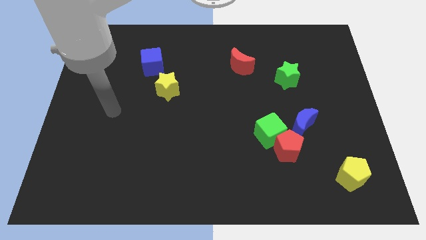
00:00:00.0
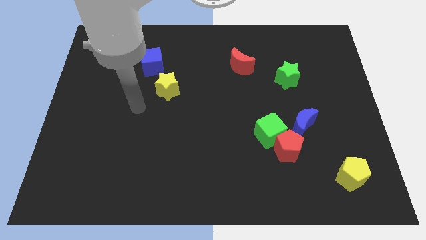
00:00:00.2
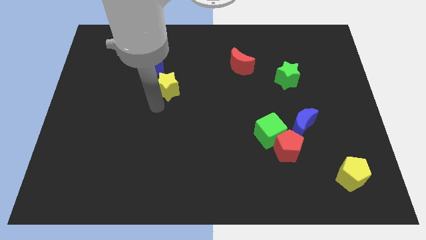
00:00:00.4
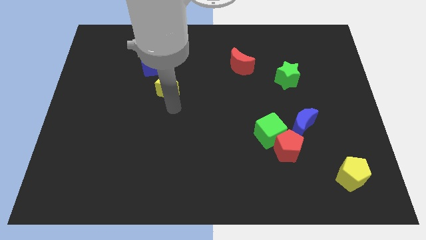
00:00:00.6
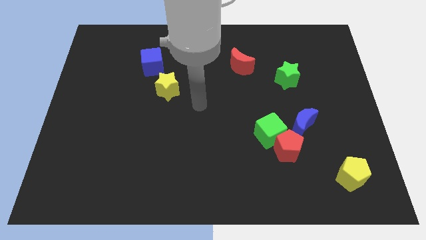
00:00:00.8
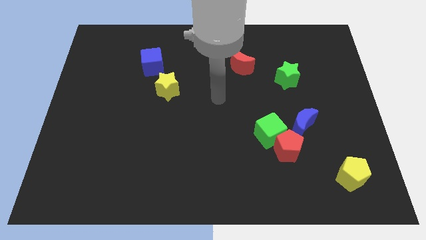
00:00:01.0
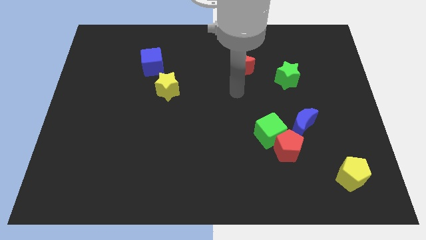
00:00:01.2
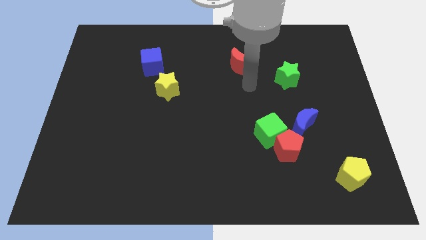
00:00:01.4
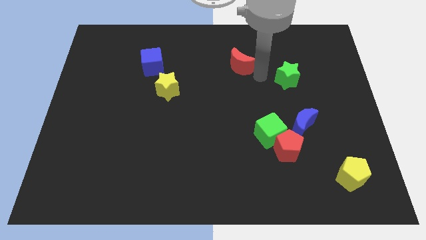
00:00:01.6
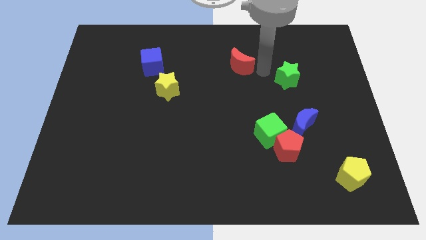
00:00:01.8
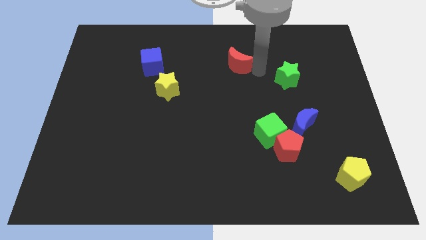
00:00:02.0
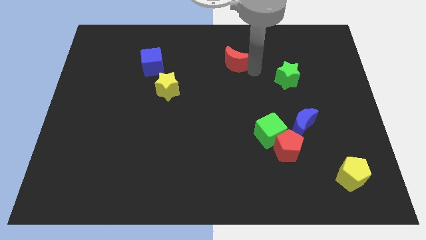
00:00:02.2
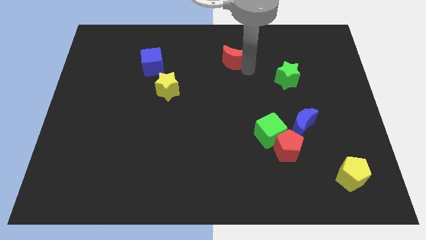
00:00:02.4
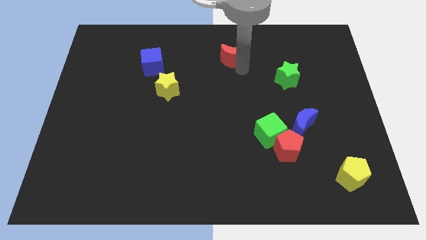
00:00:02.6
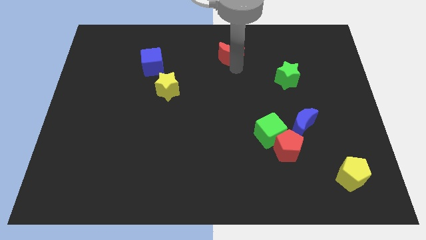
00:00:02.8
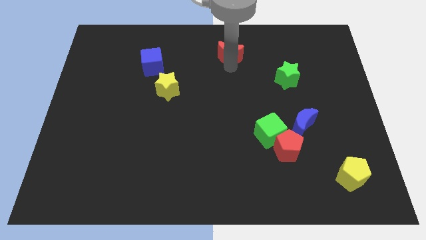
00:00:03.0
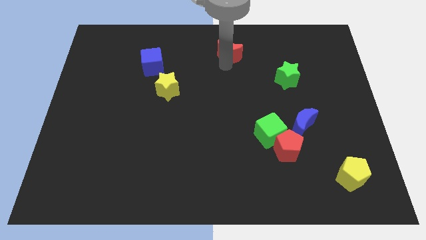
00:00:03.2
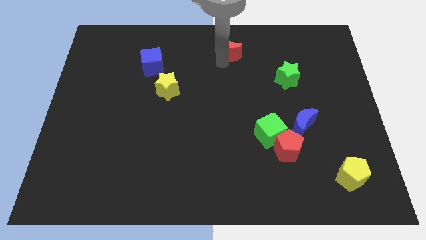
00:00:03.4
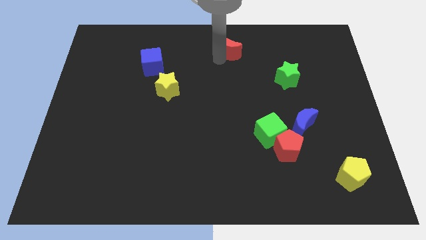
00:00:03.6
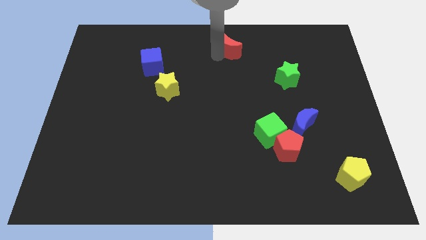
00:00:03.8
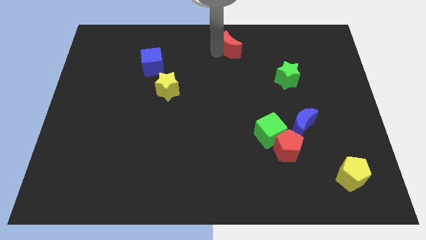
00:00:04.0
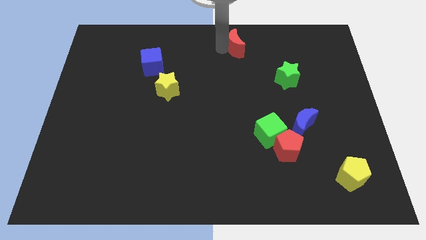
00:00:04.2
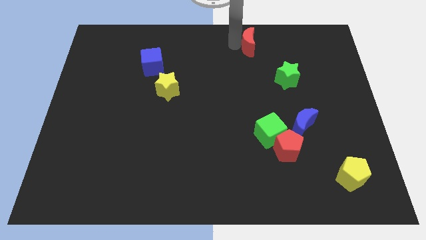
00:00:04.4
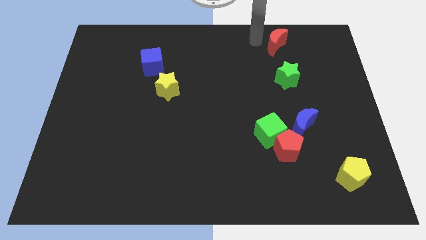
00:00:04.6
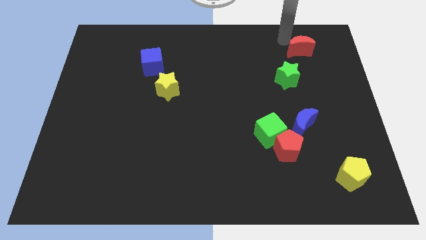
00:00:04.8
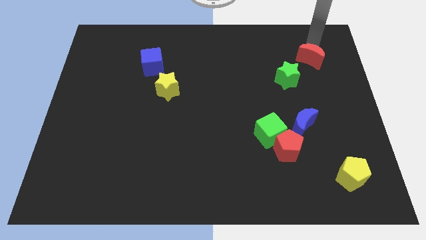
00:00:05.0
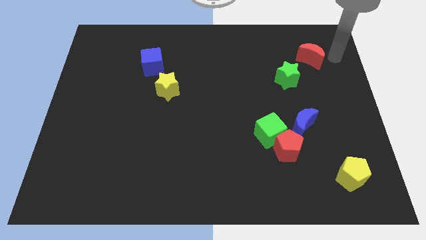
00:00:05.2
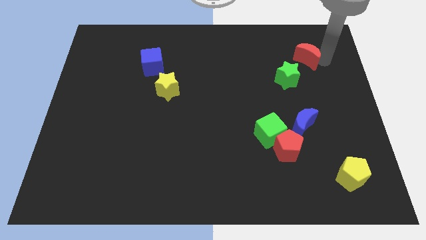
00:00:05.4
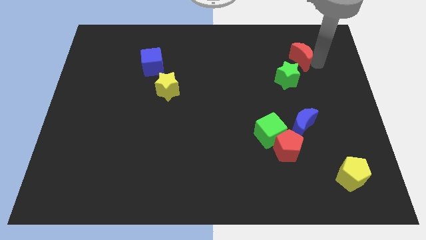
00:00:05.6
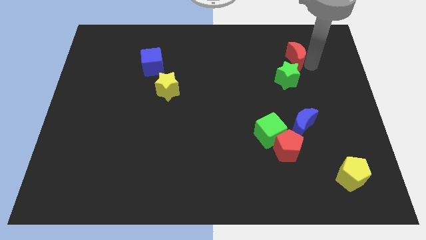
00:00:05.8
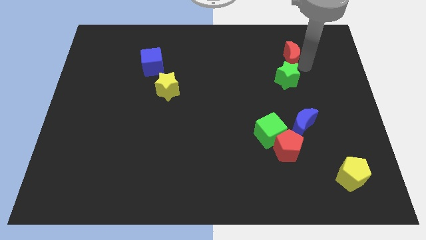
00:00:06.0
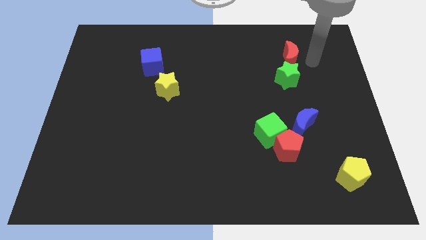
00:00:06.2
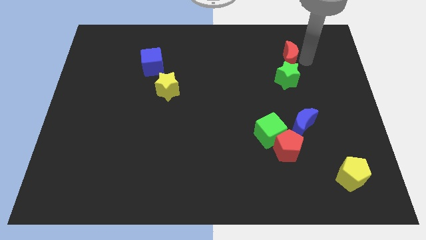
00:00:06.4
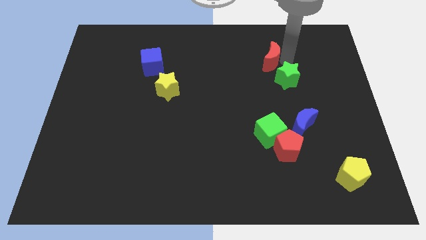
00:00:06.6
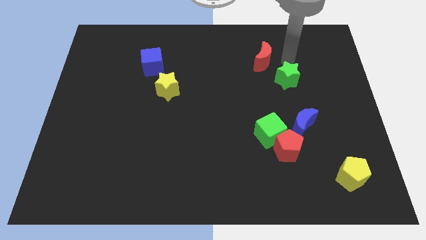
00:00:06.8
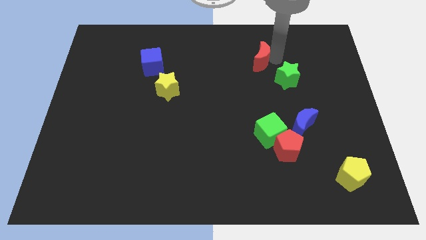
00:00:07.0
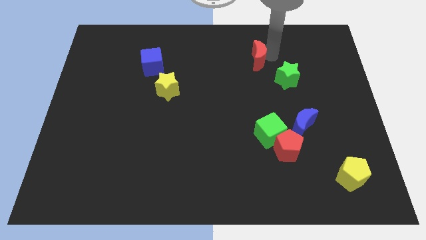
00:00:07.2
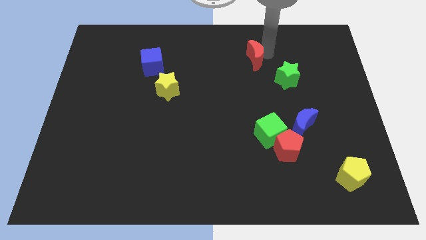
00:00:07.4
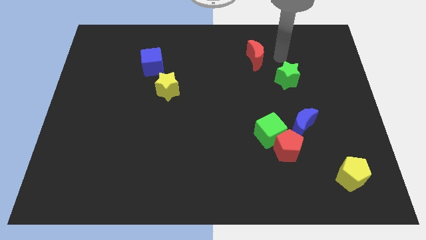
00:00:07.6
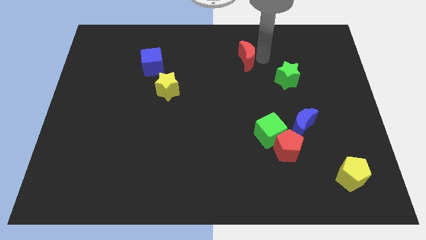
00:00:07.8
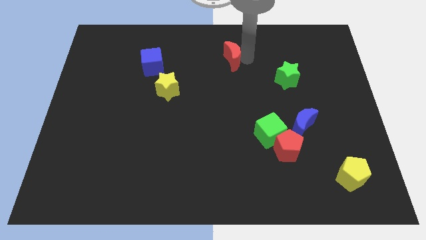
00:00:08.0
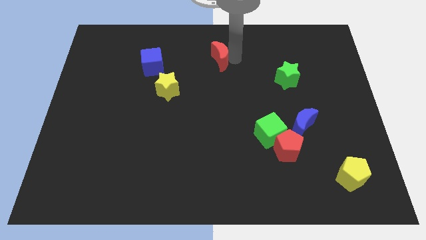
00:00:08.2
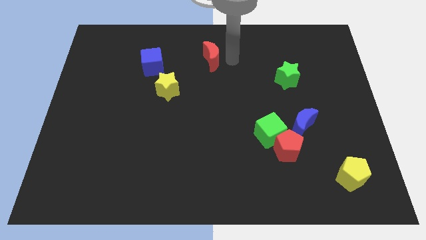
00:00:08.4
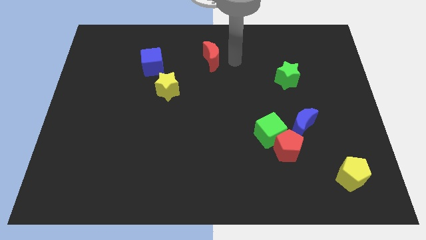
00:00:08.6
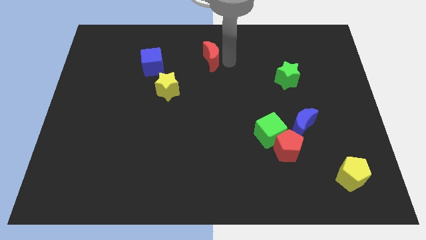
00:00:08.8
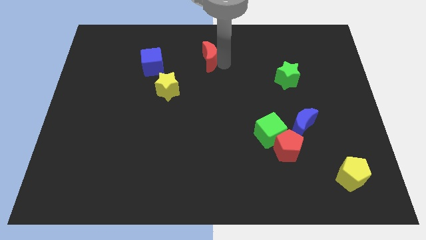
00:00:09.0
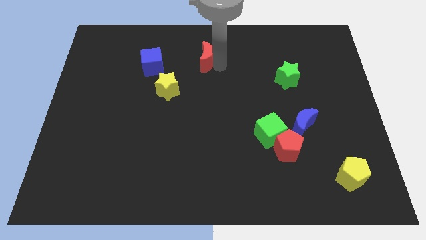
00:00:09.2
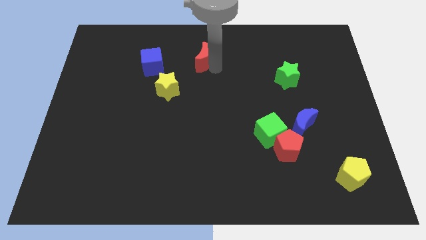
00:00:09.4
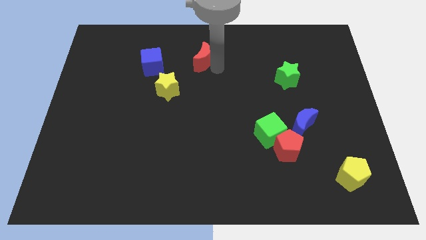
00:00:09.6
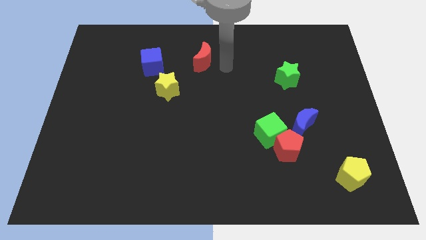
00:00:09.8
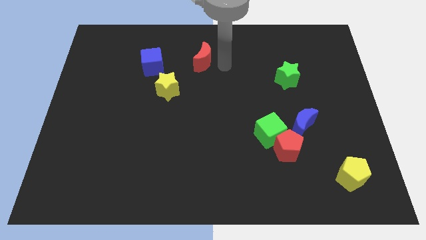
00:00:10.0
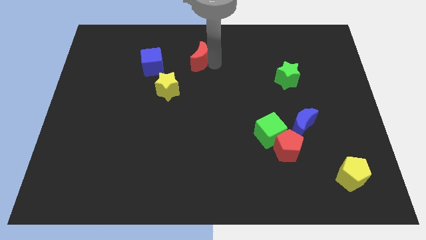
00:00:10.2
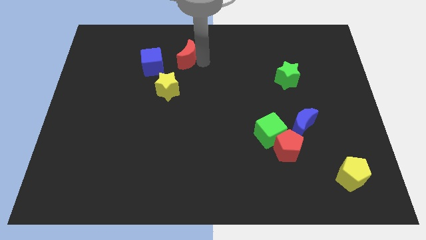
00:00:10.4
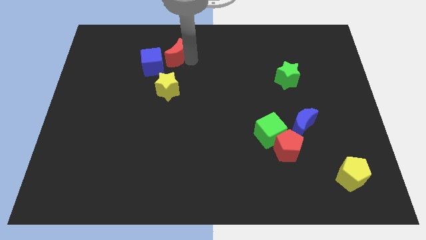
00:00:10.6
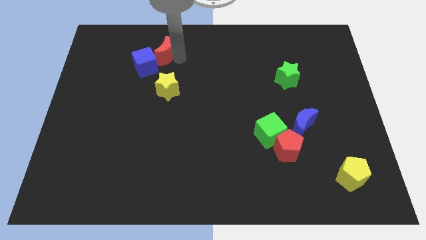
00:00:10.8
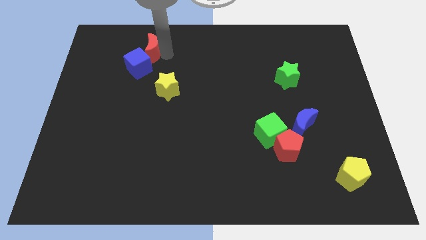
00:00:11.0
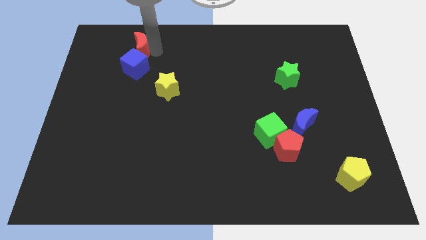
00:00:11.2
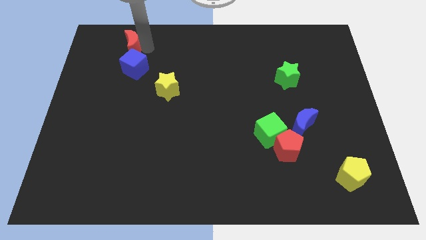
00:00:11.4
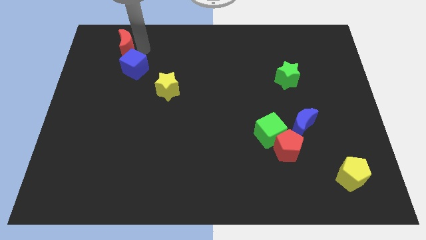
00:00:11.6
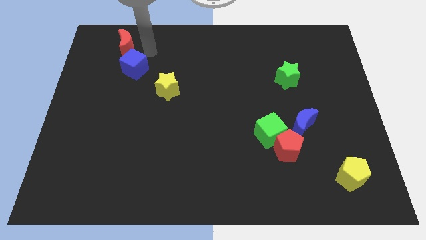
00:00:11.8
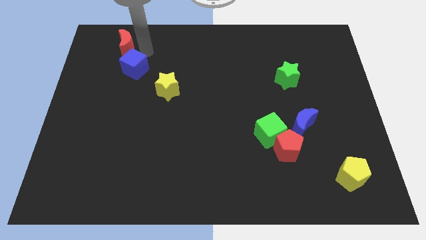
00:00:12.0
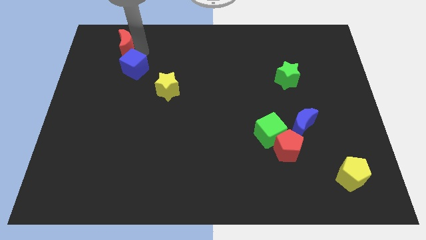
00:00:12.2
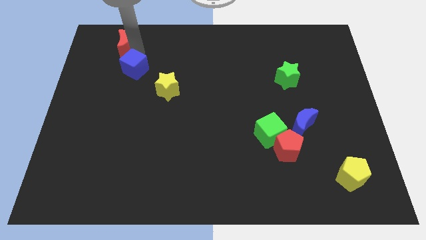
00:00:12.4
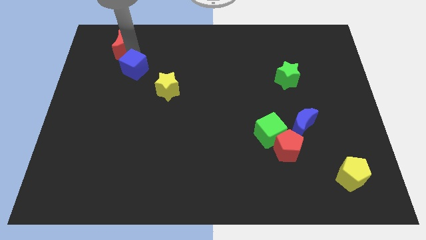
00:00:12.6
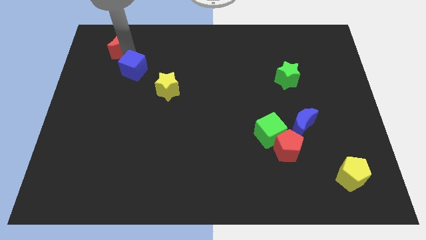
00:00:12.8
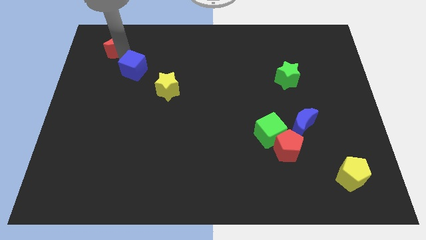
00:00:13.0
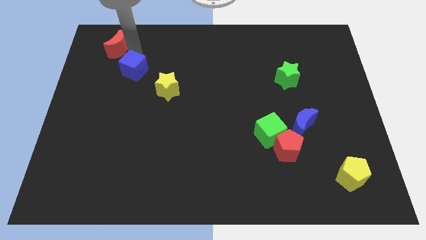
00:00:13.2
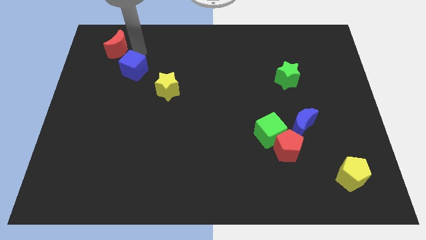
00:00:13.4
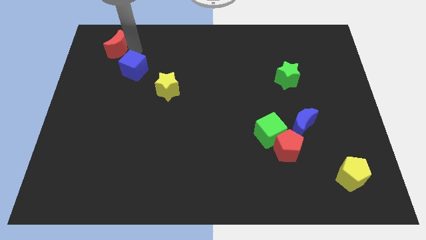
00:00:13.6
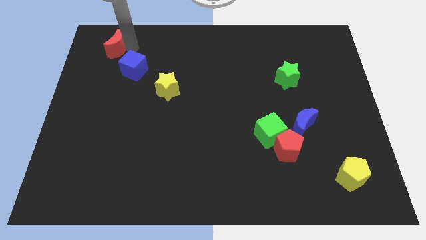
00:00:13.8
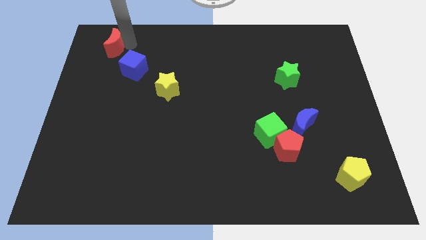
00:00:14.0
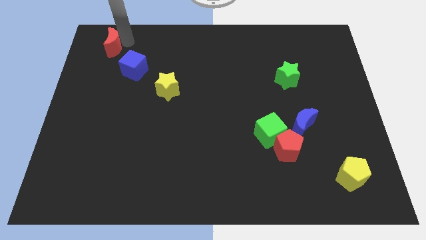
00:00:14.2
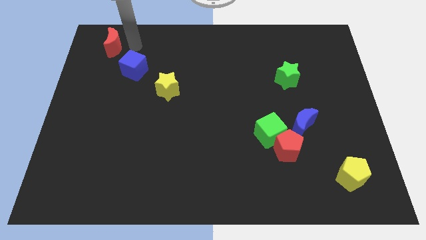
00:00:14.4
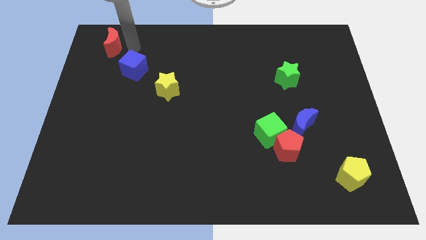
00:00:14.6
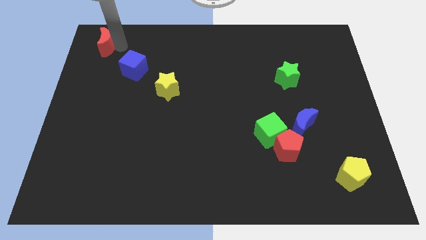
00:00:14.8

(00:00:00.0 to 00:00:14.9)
put the red moon to the top left
